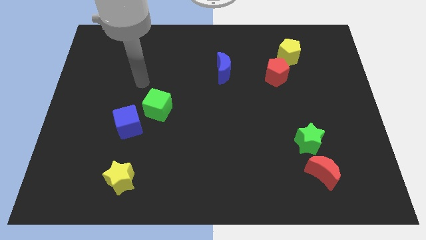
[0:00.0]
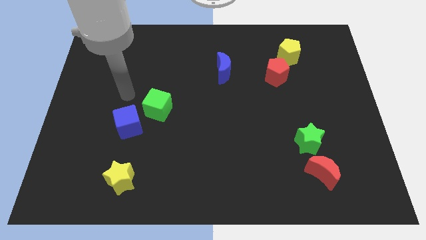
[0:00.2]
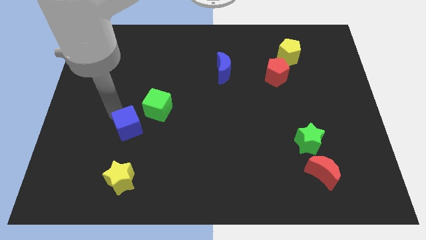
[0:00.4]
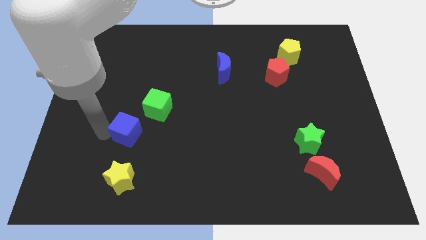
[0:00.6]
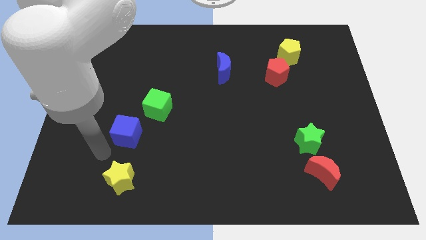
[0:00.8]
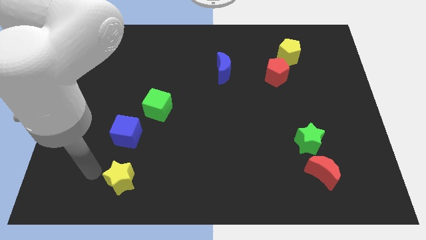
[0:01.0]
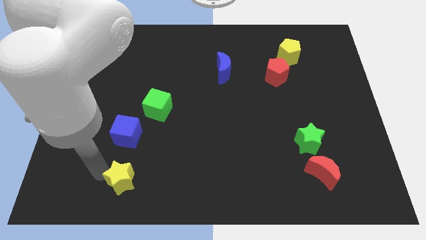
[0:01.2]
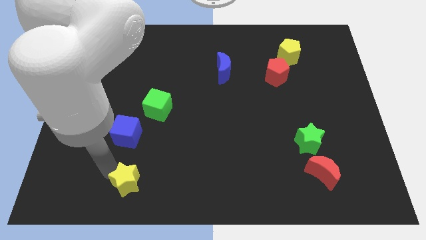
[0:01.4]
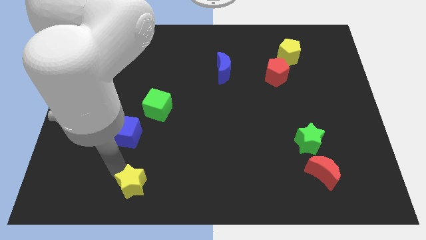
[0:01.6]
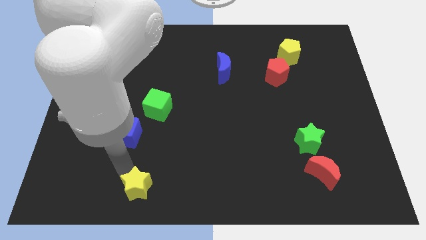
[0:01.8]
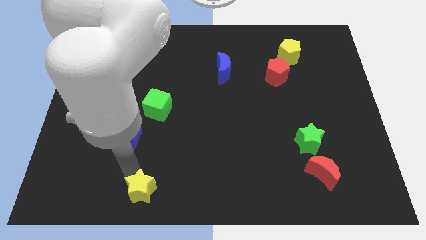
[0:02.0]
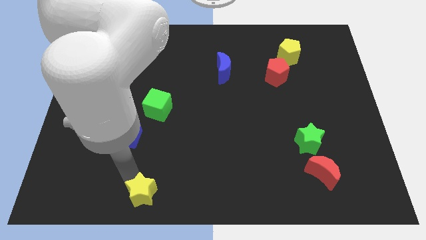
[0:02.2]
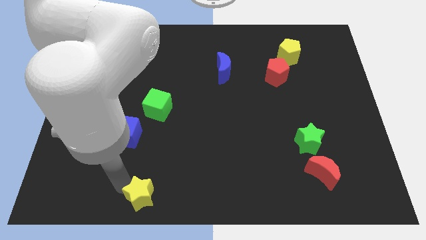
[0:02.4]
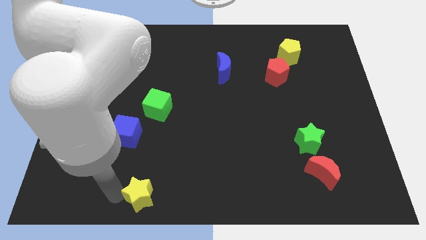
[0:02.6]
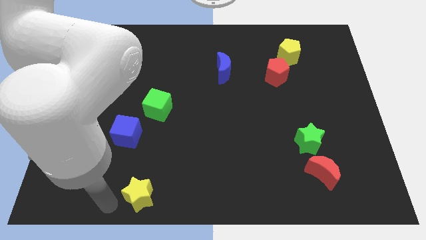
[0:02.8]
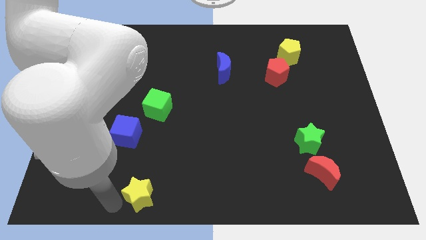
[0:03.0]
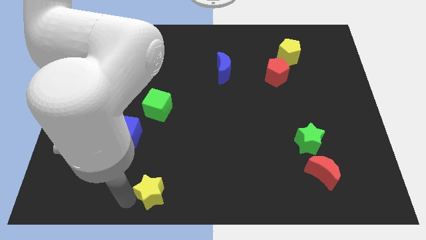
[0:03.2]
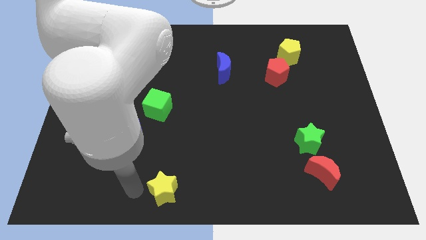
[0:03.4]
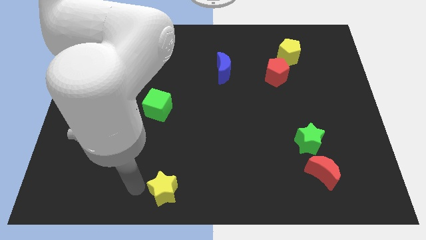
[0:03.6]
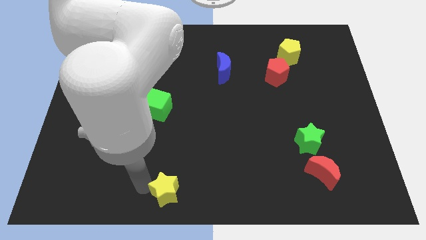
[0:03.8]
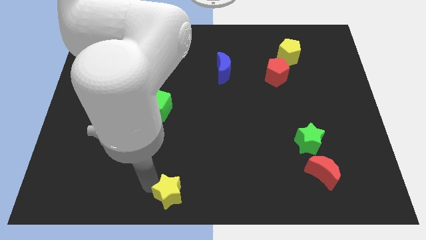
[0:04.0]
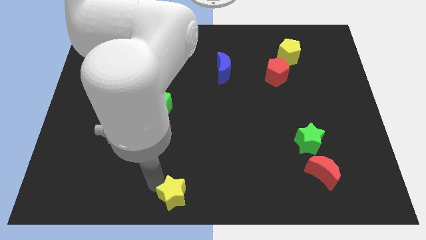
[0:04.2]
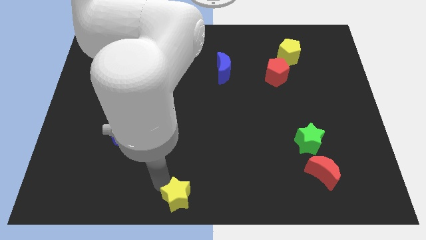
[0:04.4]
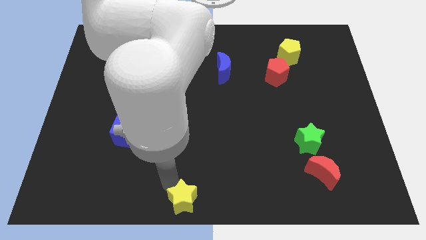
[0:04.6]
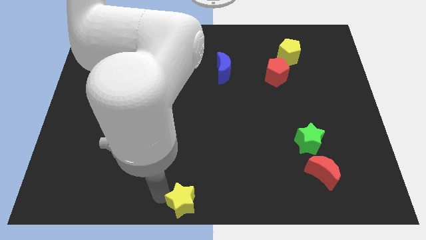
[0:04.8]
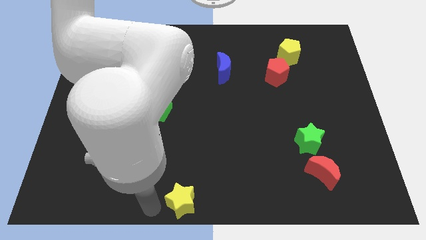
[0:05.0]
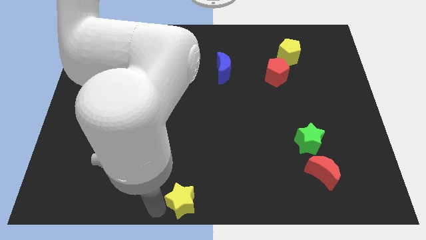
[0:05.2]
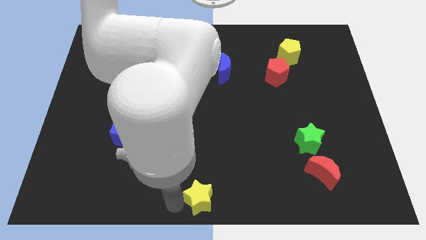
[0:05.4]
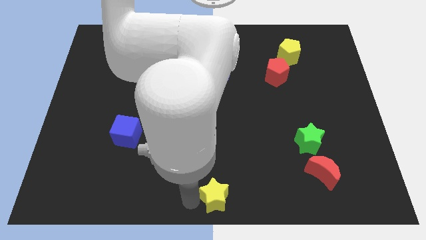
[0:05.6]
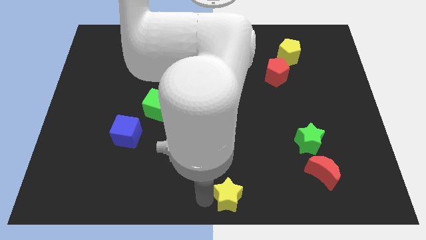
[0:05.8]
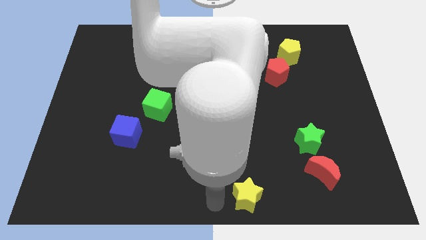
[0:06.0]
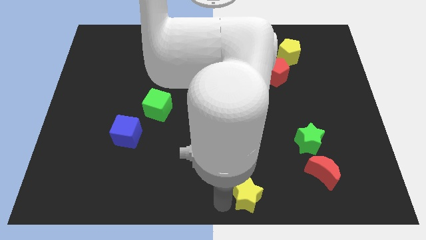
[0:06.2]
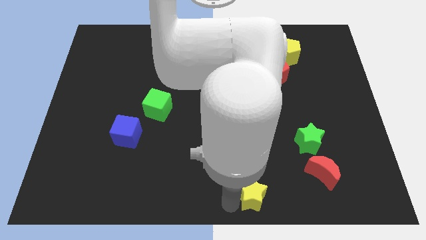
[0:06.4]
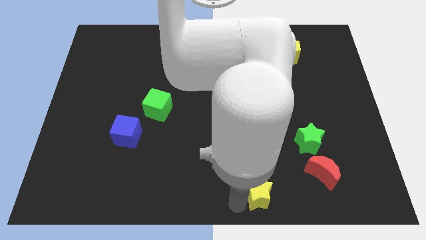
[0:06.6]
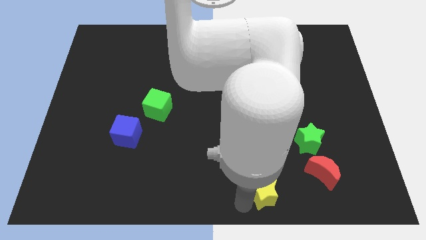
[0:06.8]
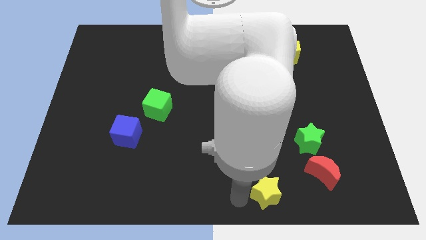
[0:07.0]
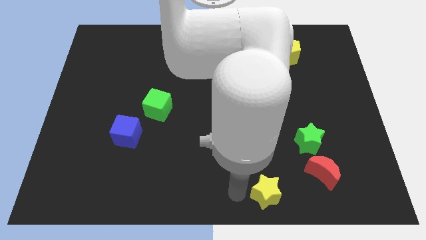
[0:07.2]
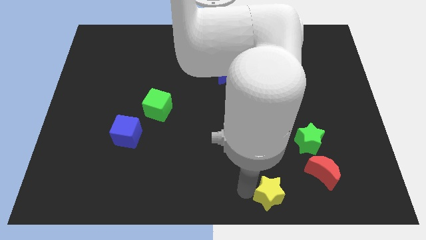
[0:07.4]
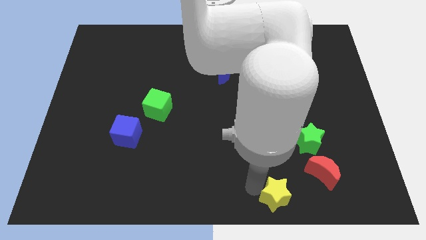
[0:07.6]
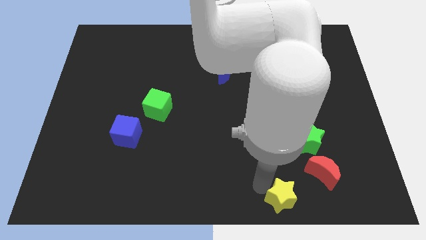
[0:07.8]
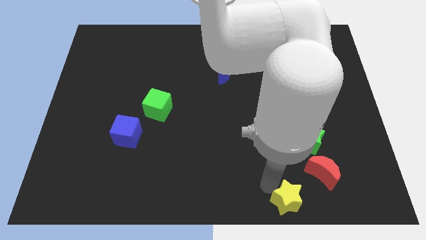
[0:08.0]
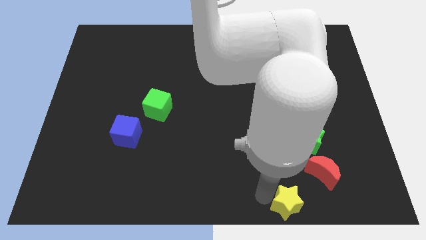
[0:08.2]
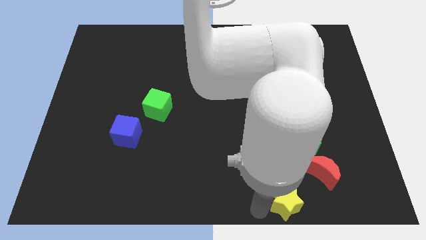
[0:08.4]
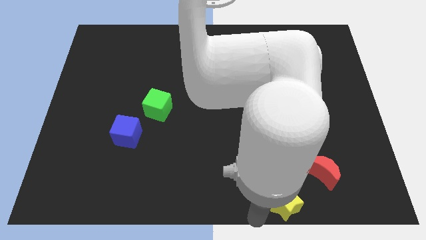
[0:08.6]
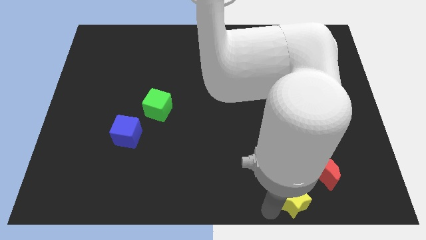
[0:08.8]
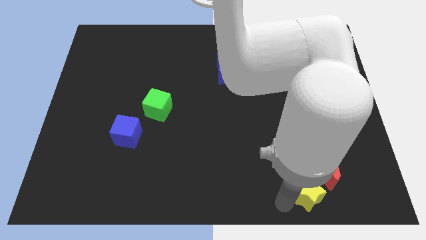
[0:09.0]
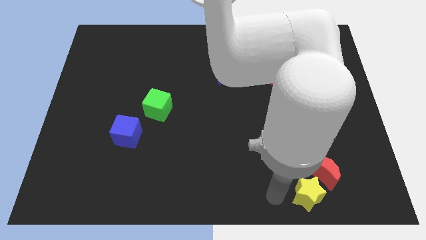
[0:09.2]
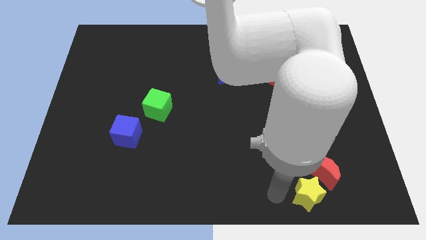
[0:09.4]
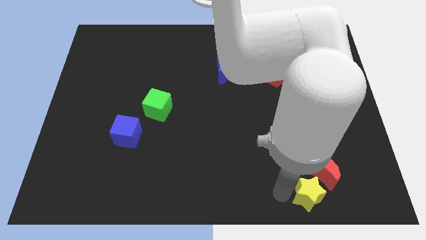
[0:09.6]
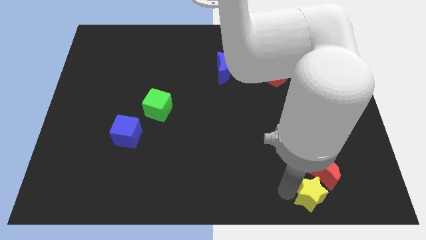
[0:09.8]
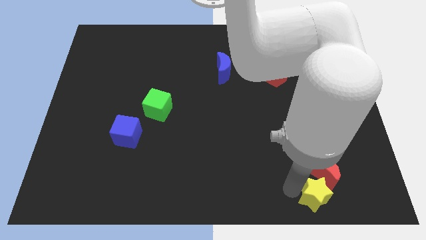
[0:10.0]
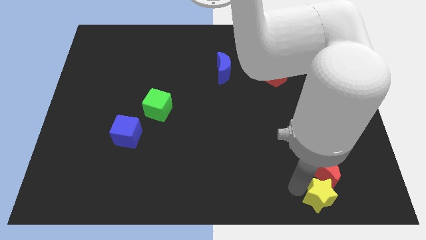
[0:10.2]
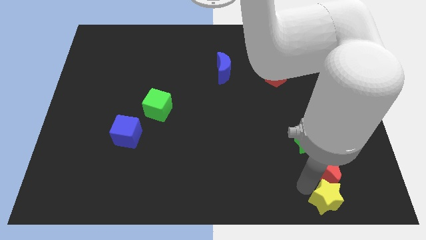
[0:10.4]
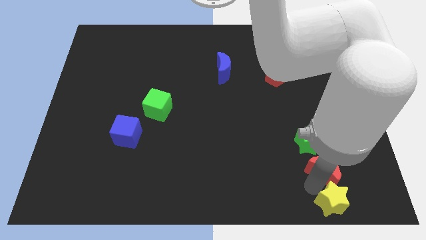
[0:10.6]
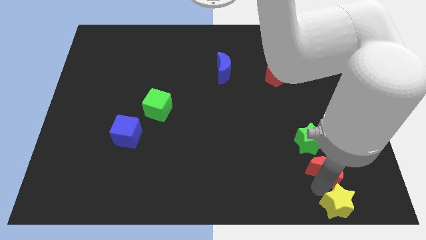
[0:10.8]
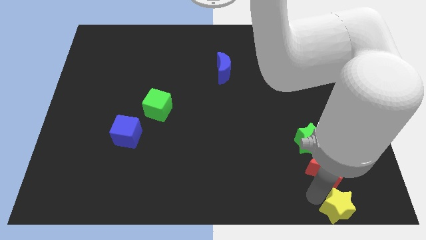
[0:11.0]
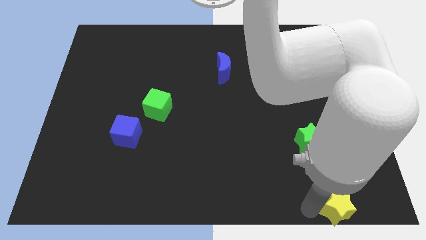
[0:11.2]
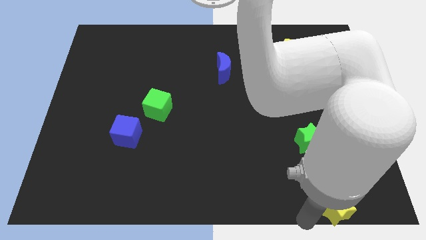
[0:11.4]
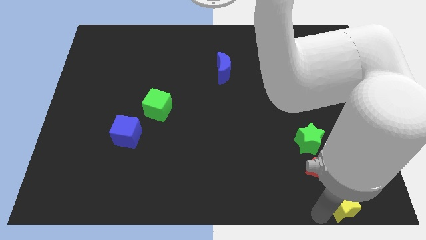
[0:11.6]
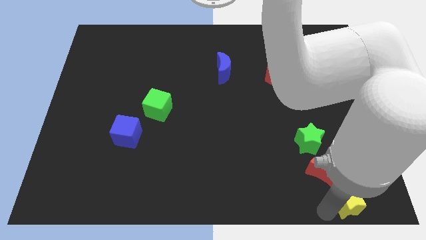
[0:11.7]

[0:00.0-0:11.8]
move the yellow star to the bottom right of the board
